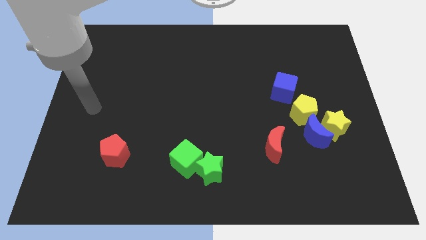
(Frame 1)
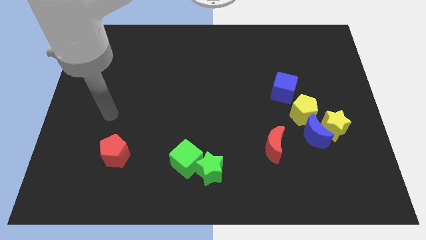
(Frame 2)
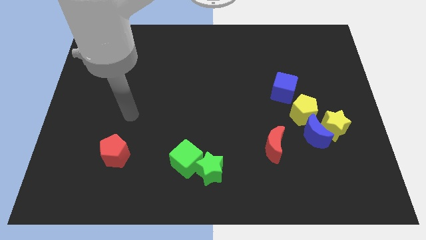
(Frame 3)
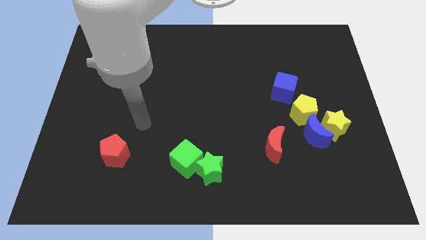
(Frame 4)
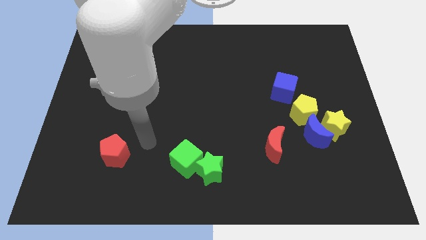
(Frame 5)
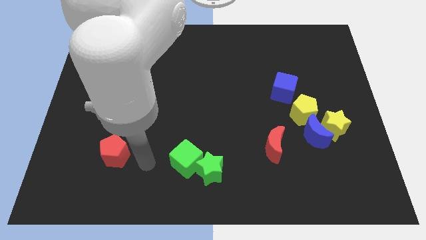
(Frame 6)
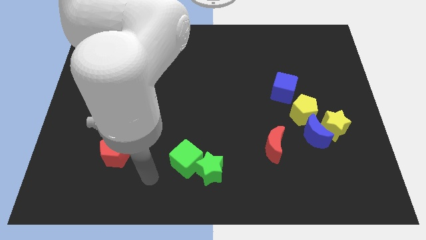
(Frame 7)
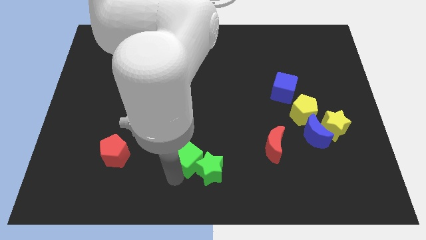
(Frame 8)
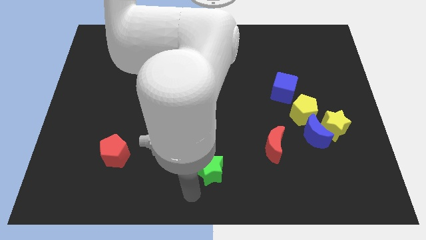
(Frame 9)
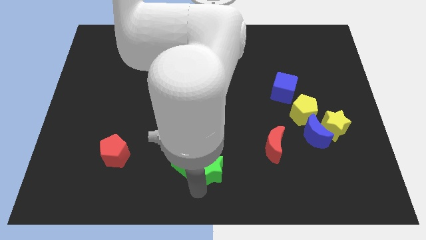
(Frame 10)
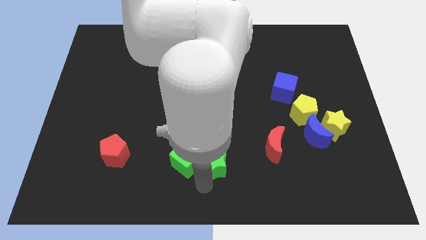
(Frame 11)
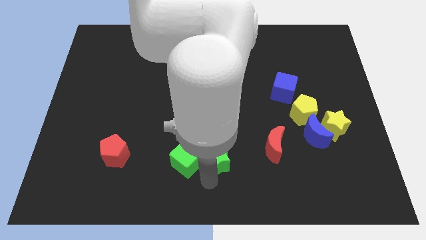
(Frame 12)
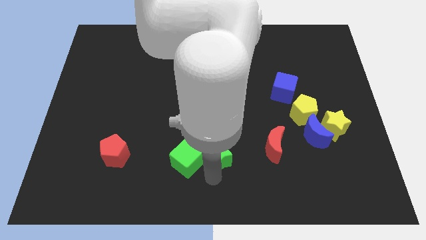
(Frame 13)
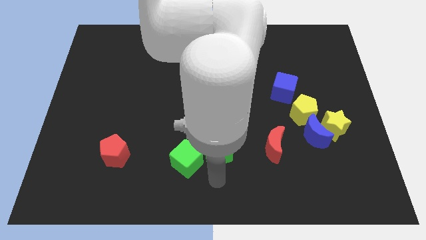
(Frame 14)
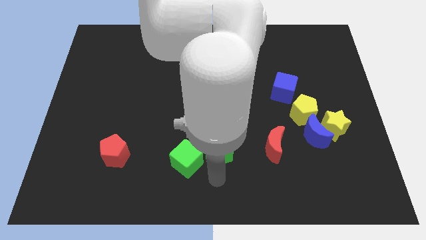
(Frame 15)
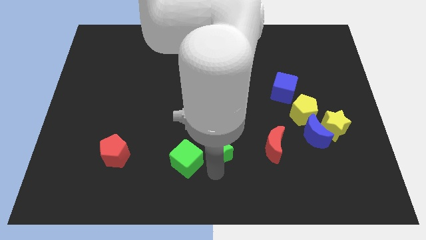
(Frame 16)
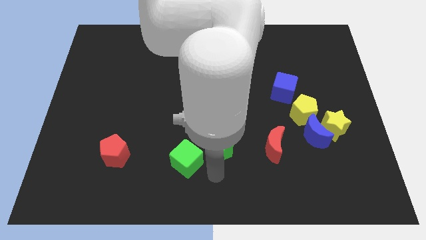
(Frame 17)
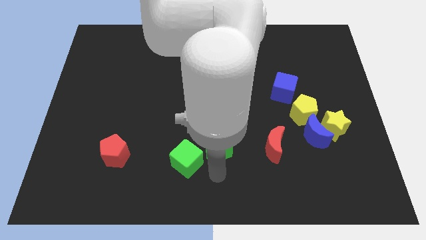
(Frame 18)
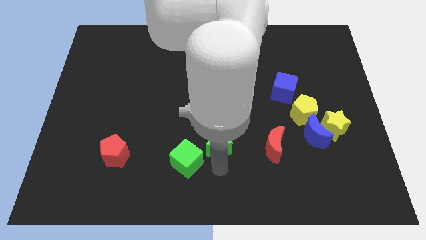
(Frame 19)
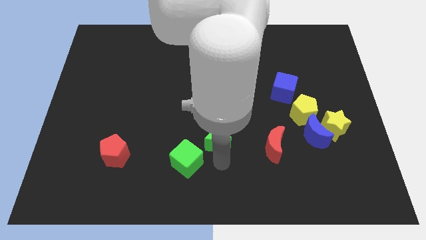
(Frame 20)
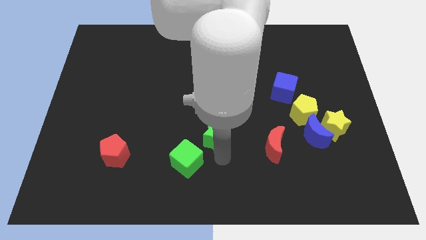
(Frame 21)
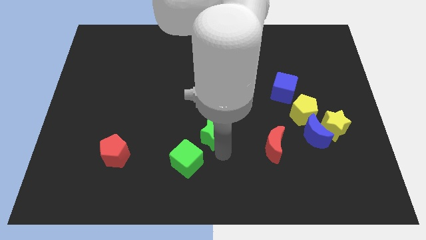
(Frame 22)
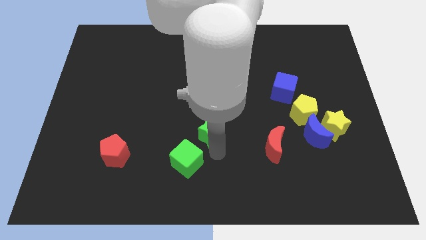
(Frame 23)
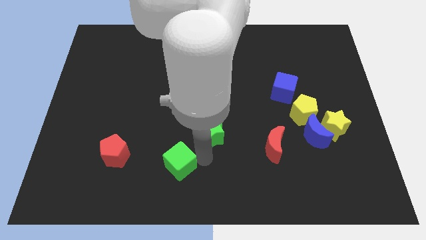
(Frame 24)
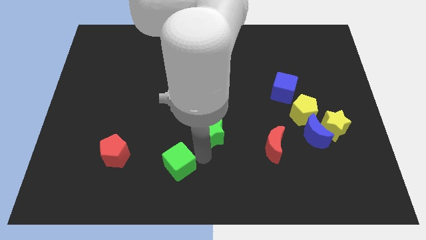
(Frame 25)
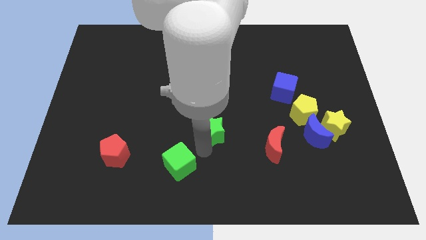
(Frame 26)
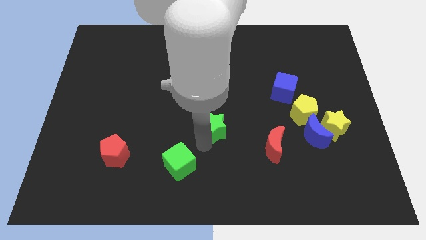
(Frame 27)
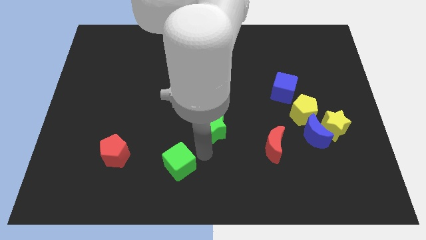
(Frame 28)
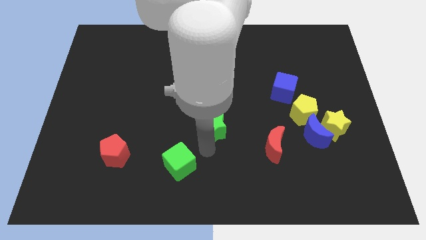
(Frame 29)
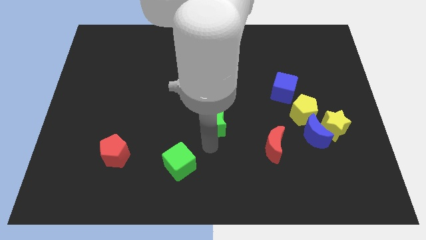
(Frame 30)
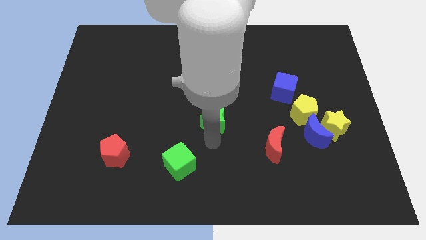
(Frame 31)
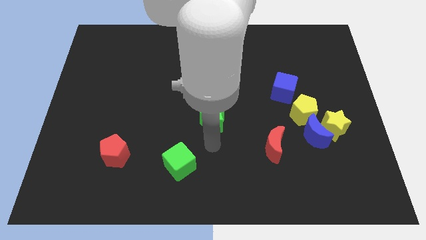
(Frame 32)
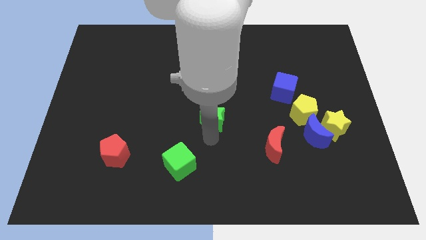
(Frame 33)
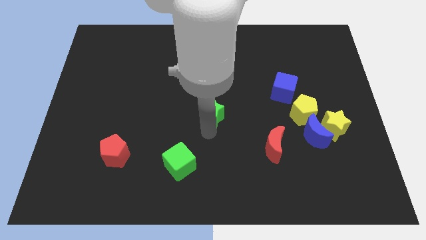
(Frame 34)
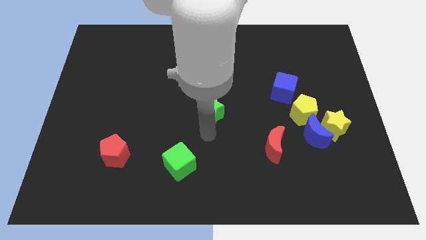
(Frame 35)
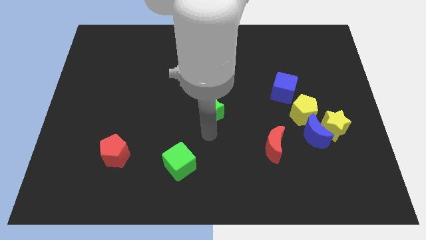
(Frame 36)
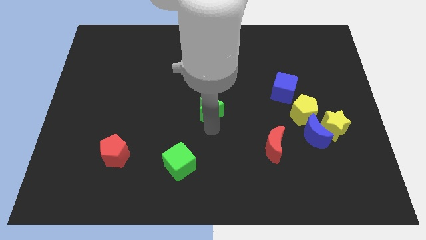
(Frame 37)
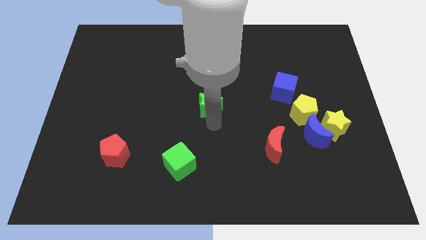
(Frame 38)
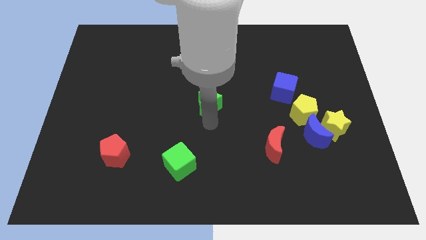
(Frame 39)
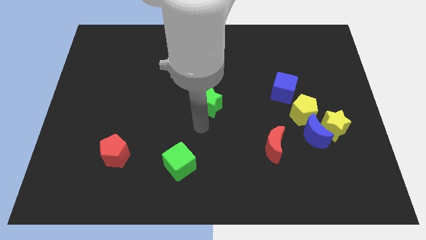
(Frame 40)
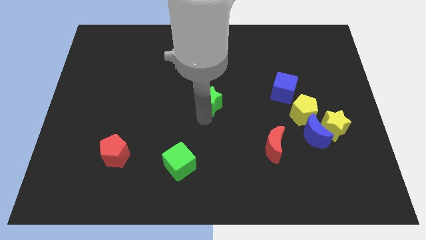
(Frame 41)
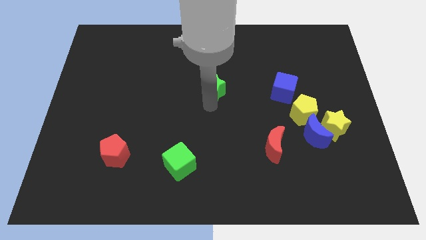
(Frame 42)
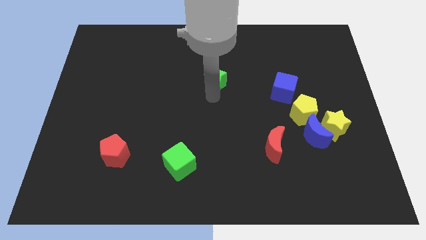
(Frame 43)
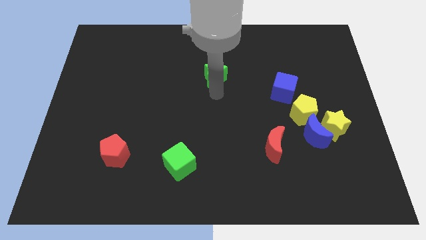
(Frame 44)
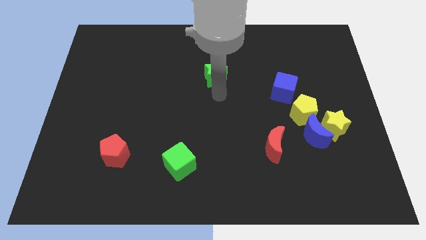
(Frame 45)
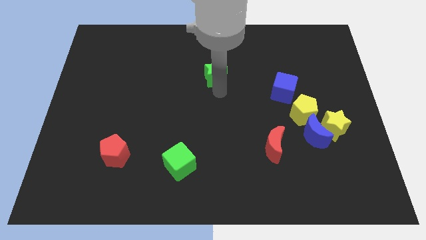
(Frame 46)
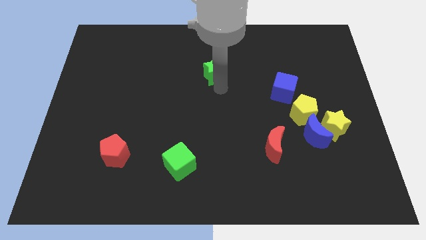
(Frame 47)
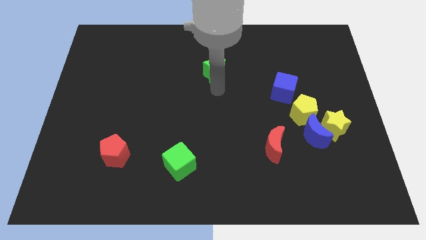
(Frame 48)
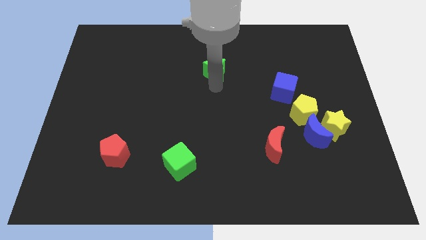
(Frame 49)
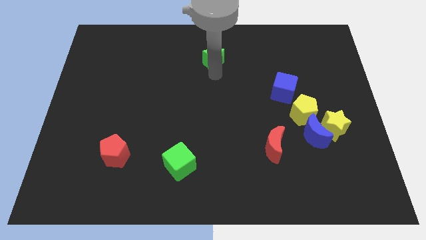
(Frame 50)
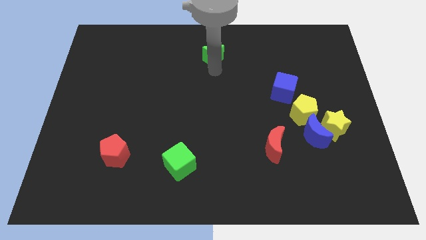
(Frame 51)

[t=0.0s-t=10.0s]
slide the green star to the towards your base
